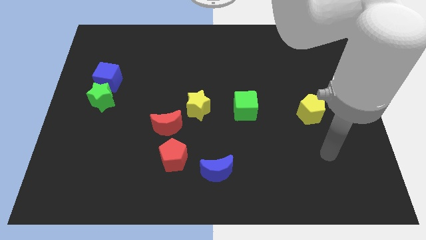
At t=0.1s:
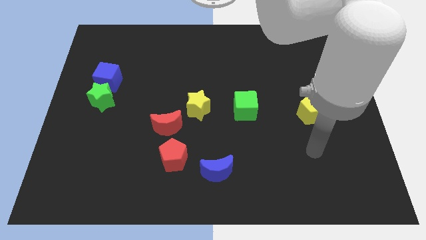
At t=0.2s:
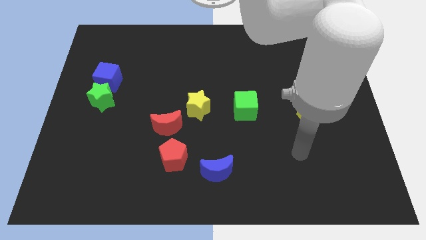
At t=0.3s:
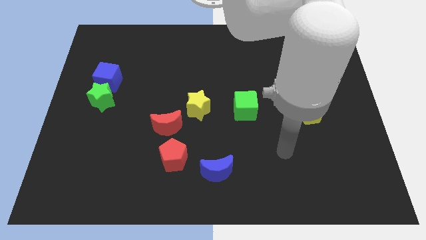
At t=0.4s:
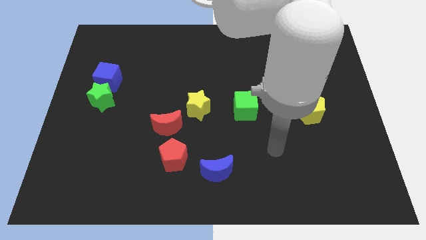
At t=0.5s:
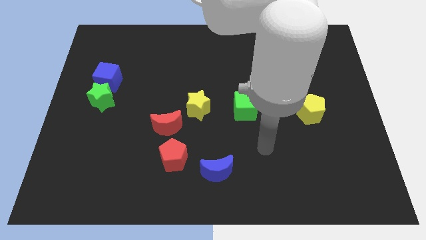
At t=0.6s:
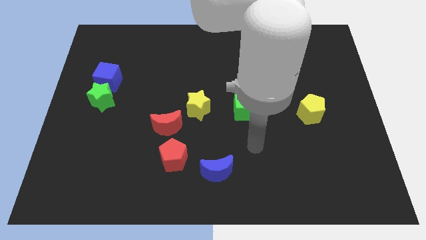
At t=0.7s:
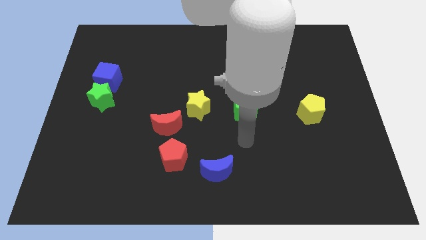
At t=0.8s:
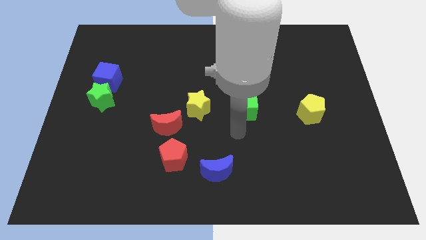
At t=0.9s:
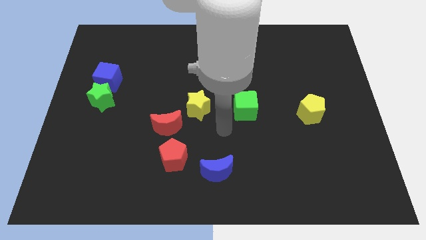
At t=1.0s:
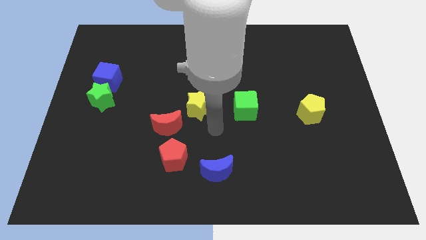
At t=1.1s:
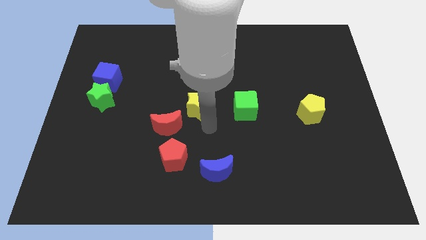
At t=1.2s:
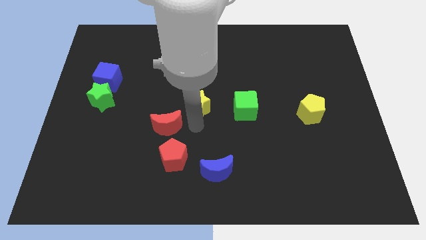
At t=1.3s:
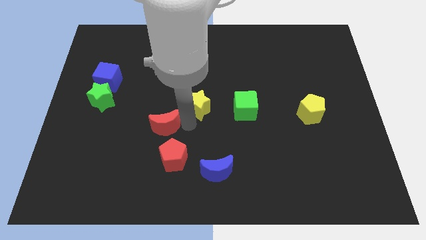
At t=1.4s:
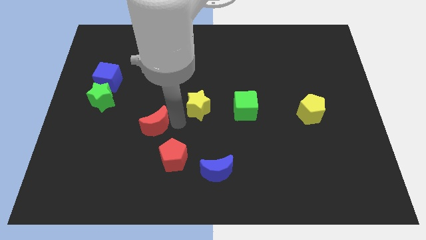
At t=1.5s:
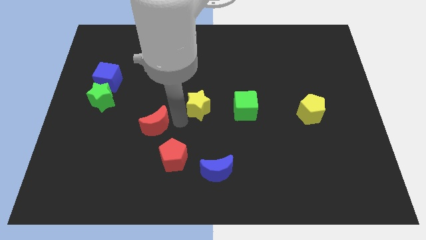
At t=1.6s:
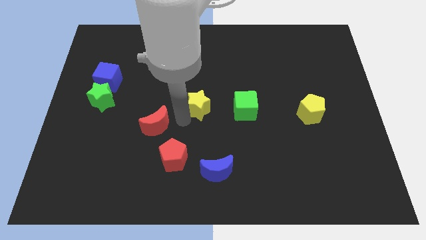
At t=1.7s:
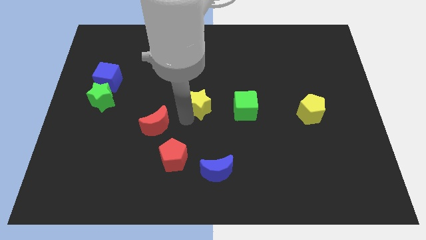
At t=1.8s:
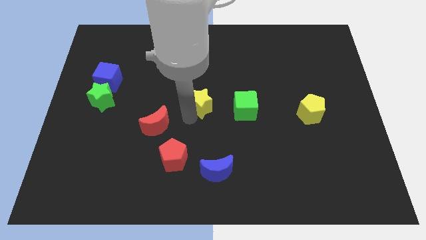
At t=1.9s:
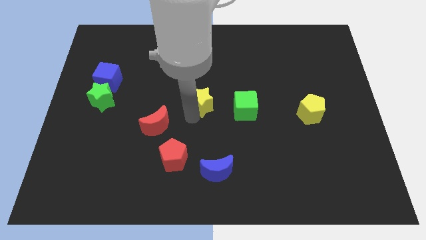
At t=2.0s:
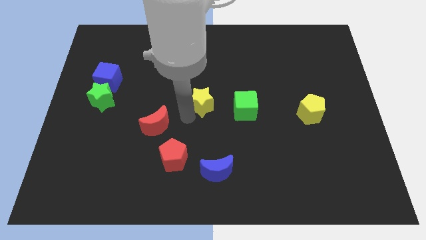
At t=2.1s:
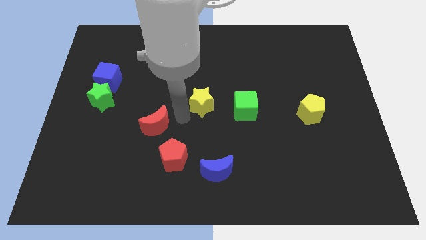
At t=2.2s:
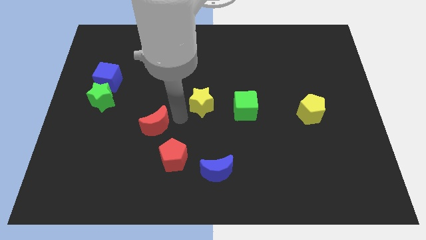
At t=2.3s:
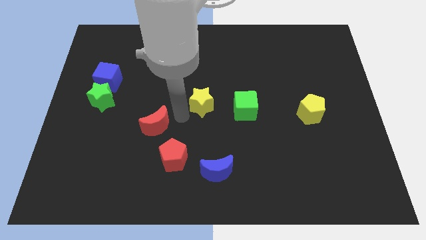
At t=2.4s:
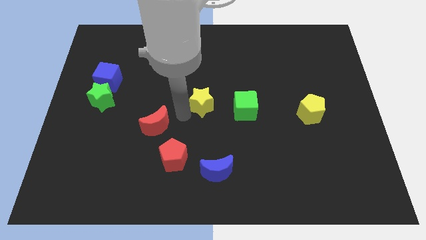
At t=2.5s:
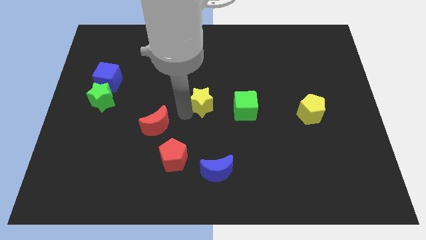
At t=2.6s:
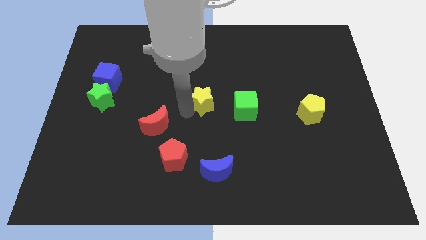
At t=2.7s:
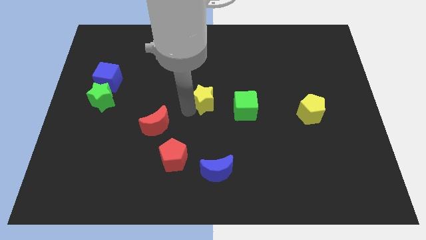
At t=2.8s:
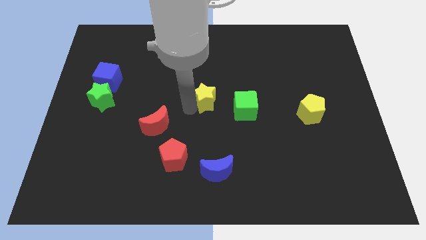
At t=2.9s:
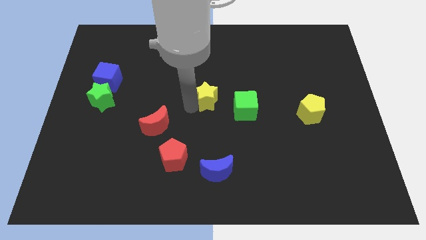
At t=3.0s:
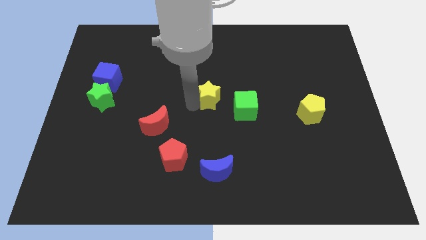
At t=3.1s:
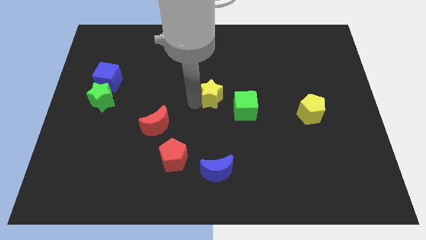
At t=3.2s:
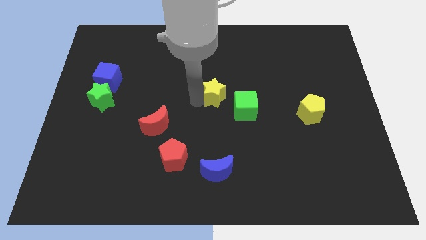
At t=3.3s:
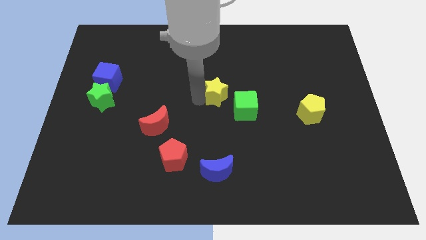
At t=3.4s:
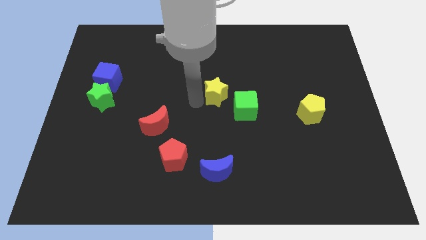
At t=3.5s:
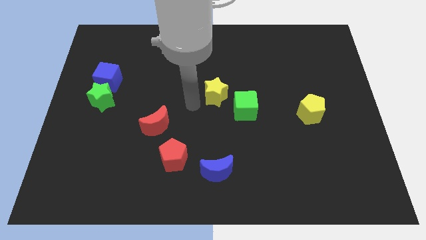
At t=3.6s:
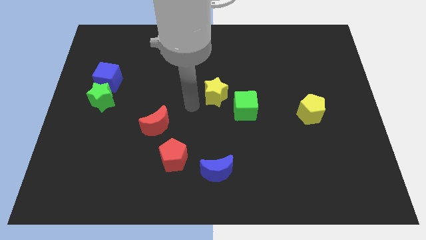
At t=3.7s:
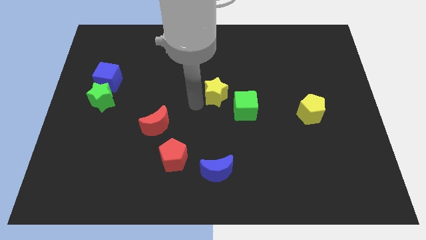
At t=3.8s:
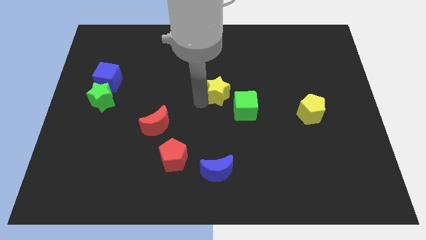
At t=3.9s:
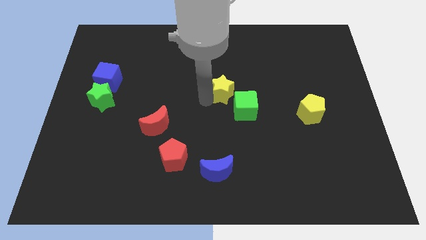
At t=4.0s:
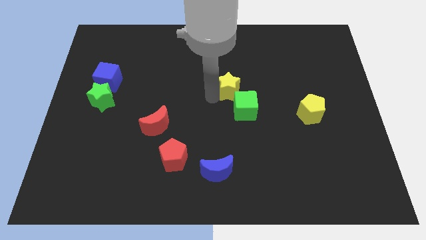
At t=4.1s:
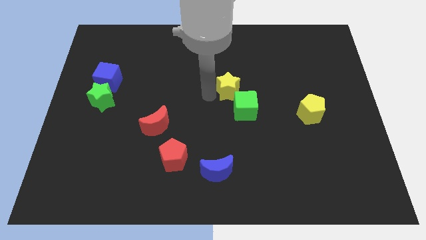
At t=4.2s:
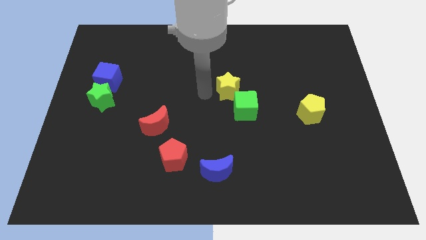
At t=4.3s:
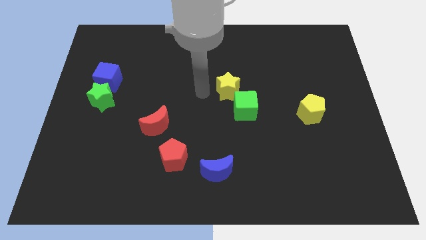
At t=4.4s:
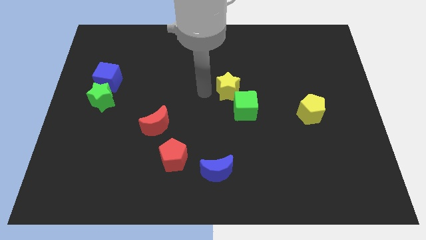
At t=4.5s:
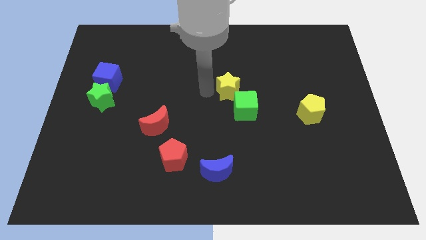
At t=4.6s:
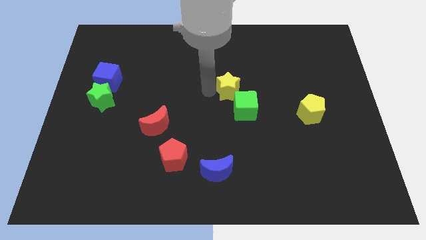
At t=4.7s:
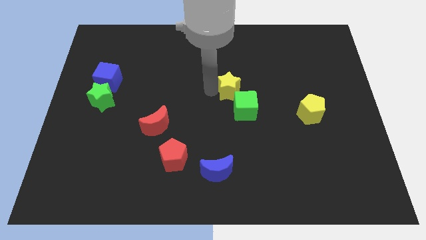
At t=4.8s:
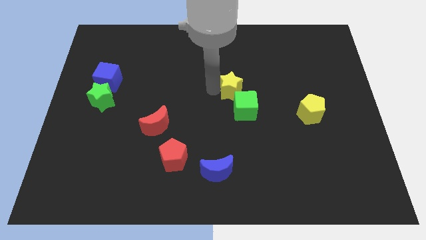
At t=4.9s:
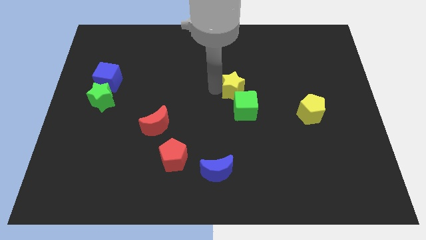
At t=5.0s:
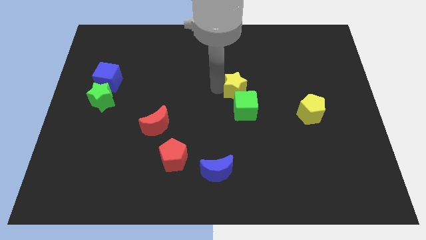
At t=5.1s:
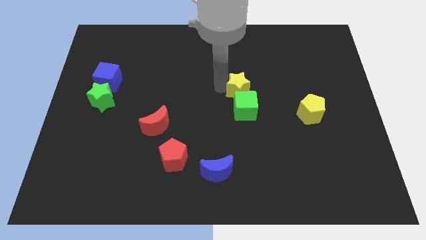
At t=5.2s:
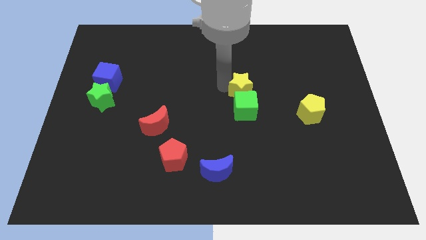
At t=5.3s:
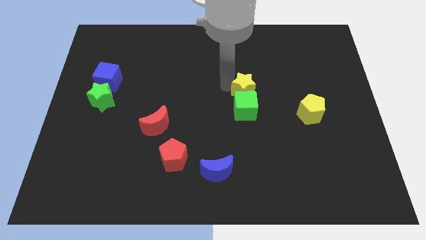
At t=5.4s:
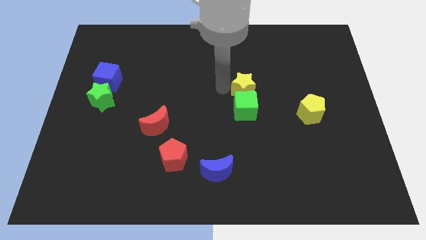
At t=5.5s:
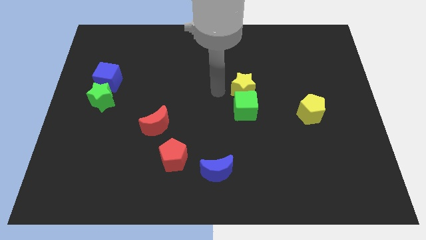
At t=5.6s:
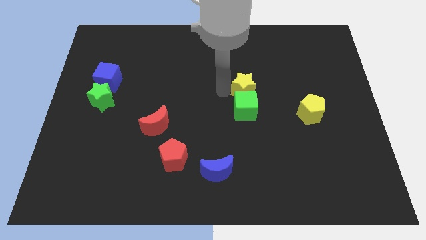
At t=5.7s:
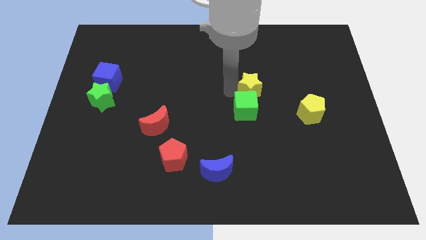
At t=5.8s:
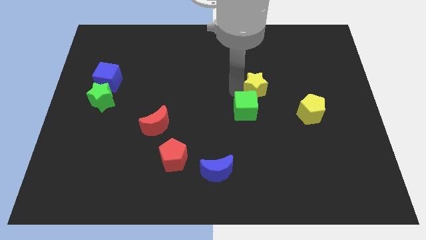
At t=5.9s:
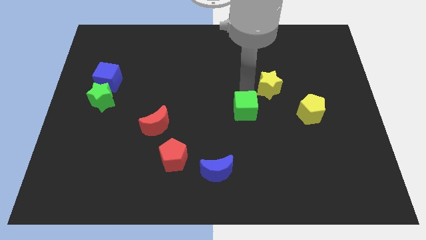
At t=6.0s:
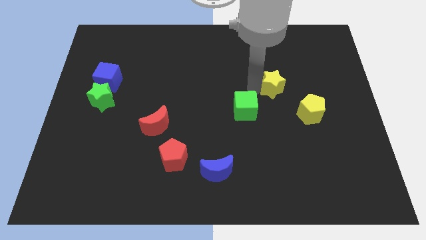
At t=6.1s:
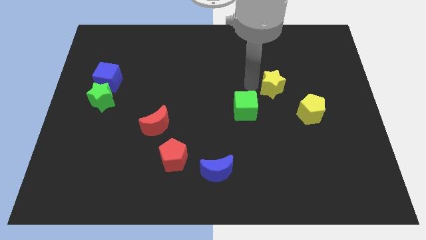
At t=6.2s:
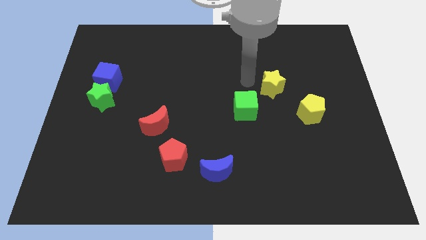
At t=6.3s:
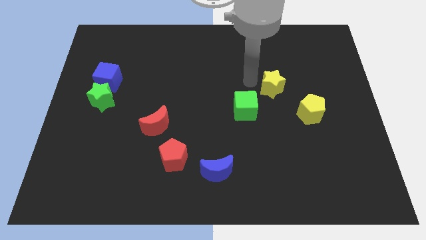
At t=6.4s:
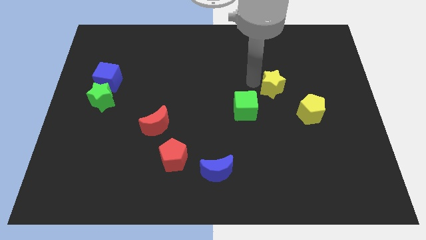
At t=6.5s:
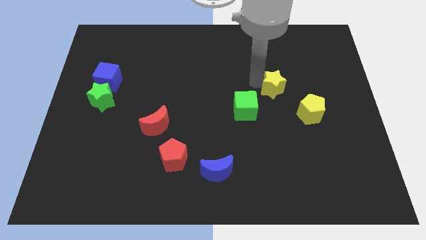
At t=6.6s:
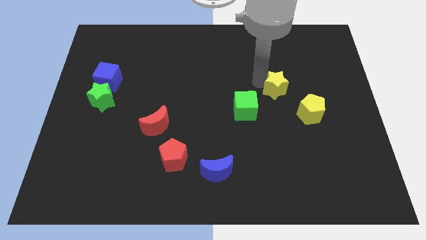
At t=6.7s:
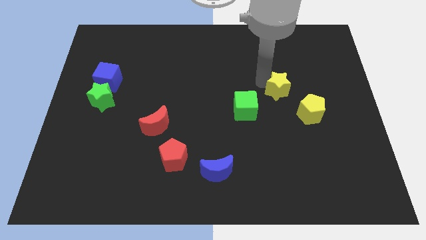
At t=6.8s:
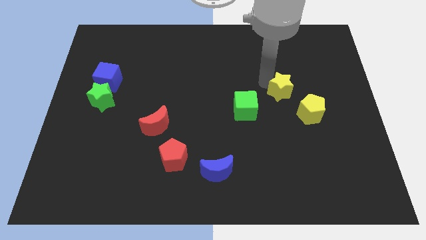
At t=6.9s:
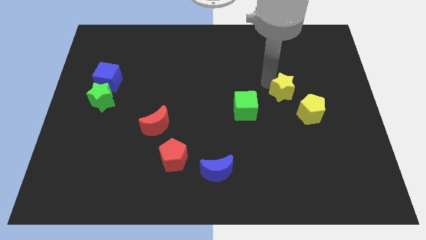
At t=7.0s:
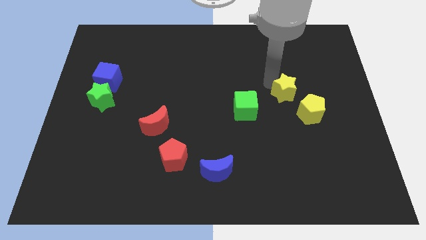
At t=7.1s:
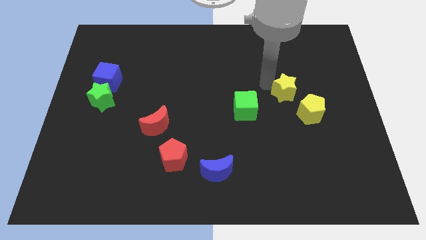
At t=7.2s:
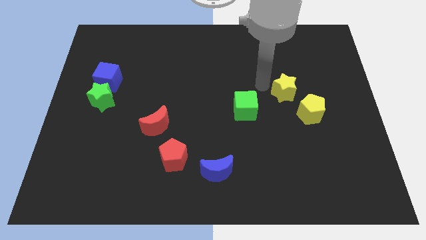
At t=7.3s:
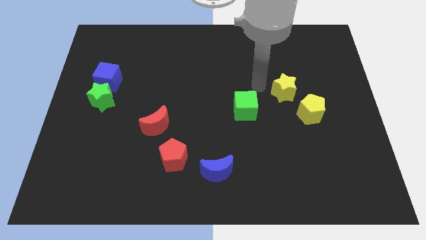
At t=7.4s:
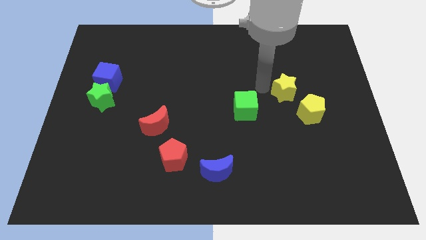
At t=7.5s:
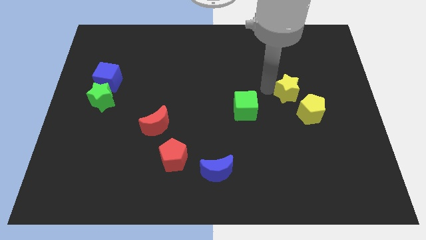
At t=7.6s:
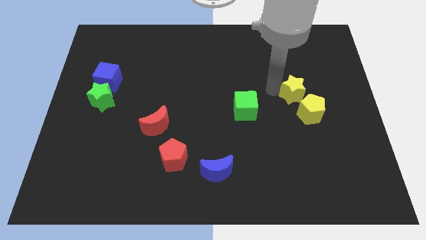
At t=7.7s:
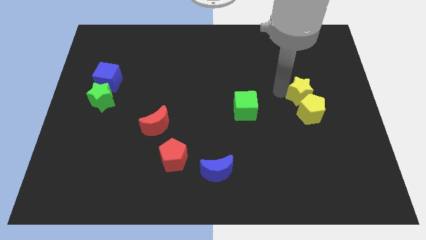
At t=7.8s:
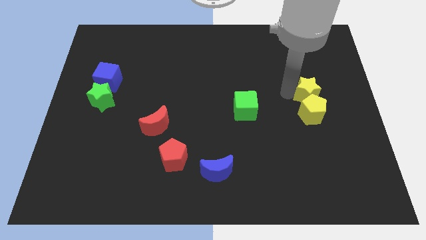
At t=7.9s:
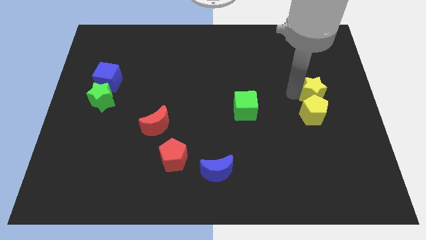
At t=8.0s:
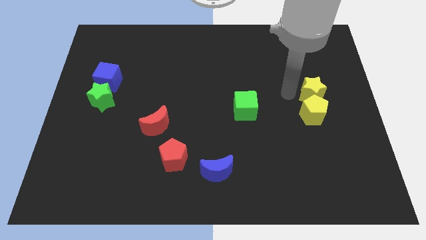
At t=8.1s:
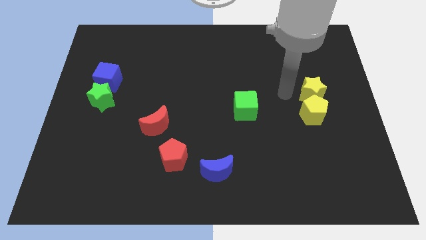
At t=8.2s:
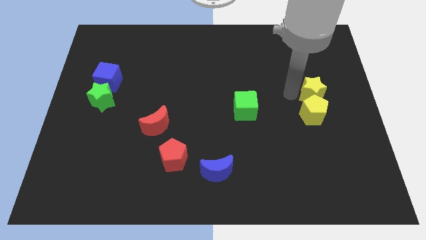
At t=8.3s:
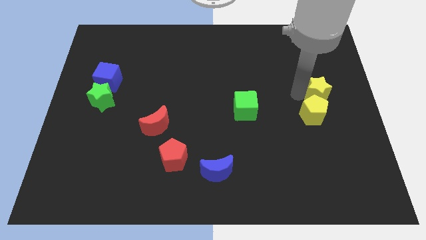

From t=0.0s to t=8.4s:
move the yellow star to the center right
